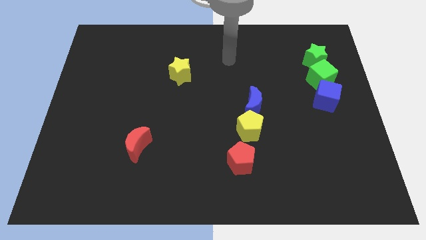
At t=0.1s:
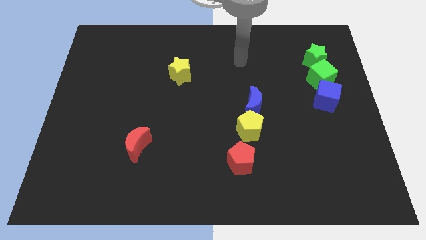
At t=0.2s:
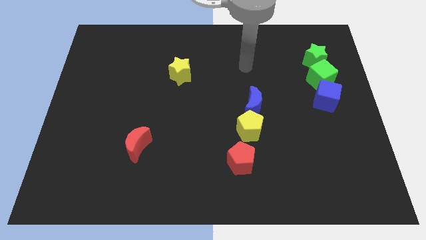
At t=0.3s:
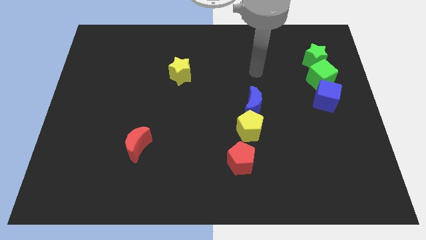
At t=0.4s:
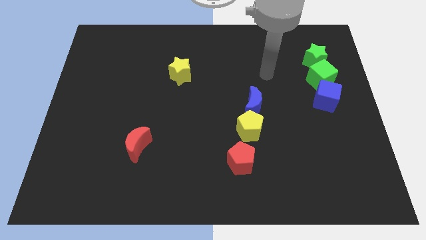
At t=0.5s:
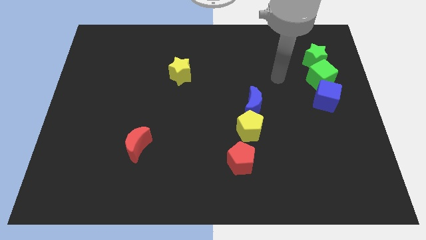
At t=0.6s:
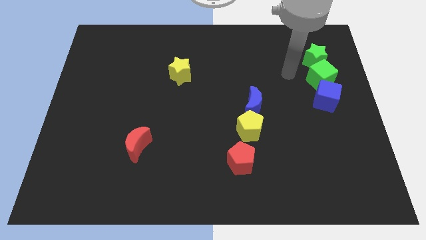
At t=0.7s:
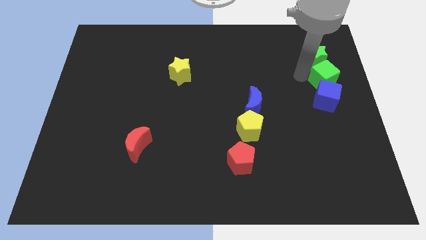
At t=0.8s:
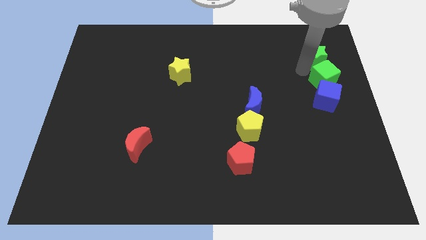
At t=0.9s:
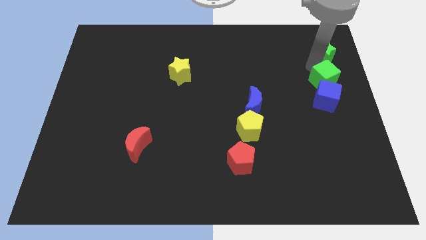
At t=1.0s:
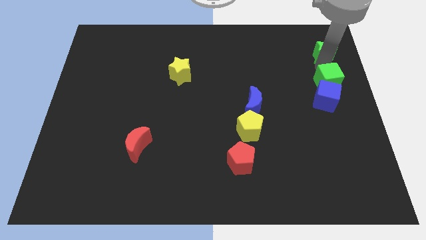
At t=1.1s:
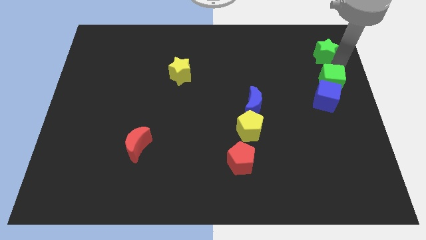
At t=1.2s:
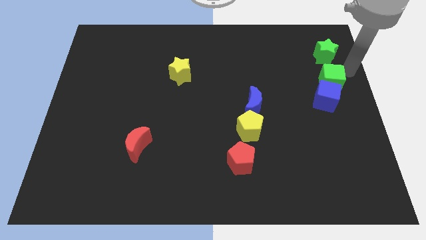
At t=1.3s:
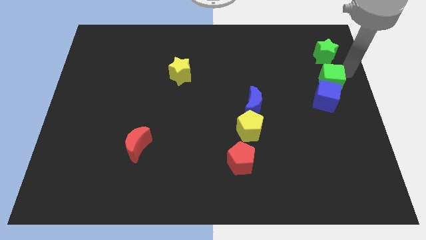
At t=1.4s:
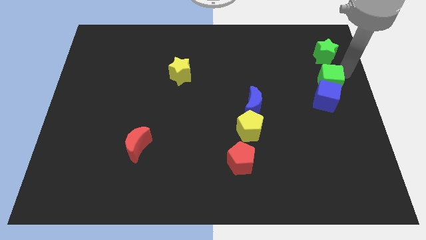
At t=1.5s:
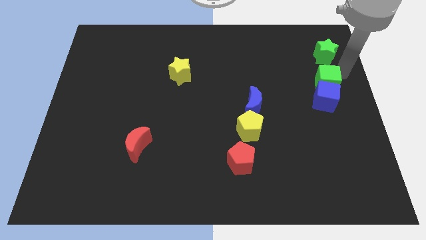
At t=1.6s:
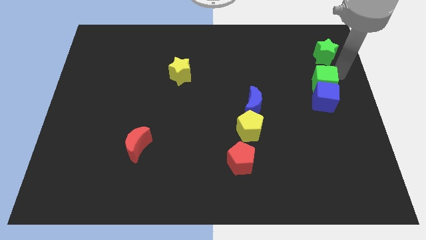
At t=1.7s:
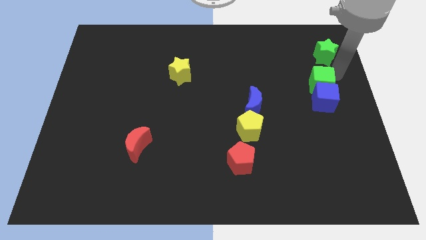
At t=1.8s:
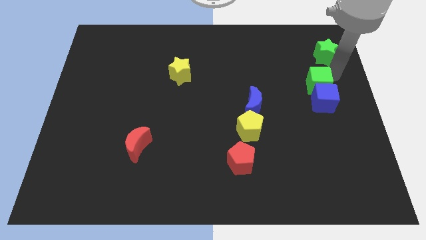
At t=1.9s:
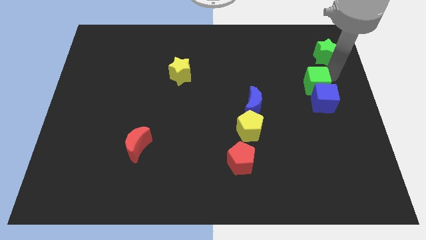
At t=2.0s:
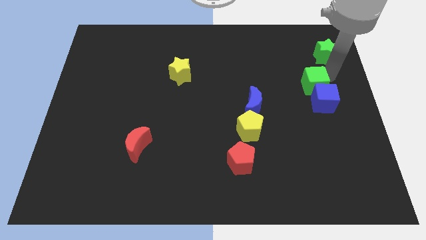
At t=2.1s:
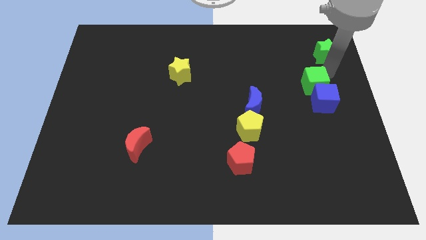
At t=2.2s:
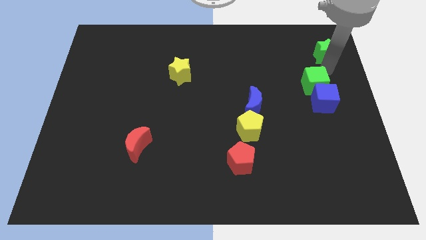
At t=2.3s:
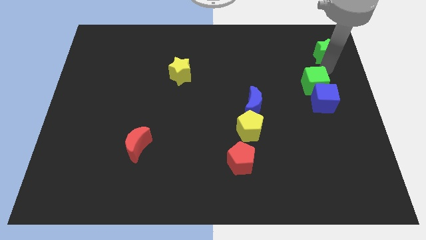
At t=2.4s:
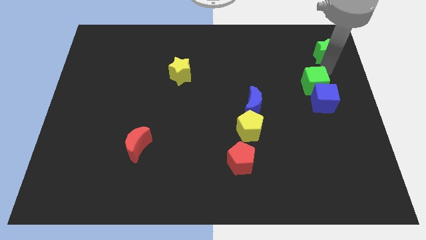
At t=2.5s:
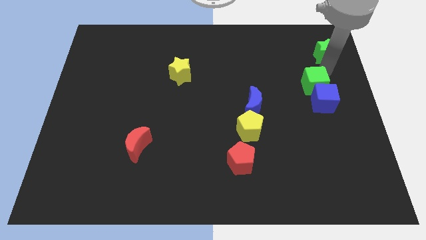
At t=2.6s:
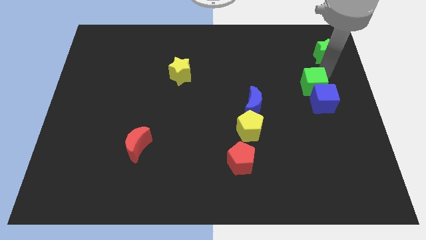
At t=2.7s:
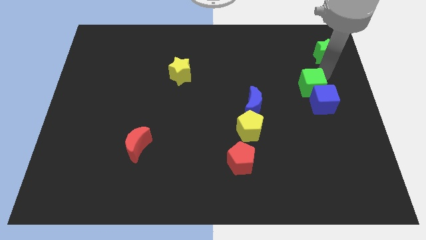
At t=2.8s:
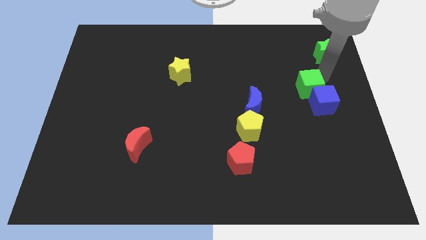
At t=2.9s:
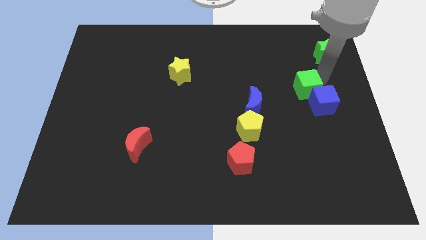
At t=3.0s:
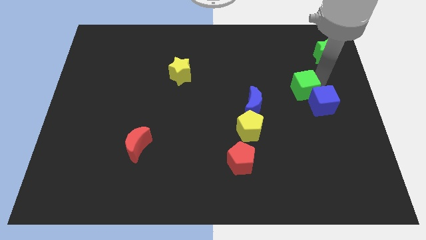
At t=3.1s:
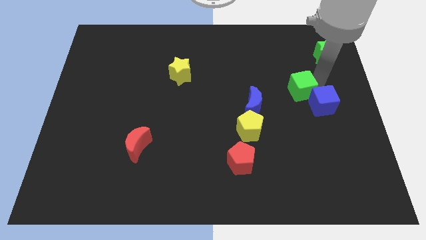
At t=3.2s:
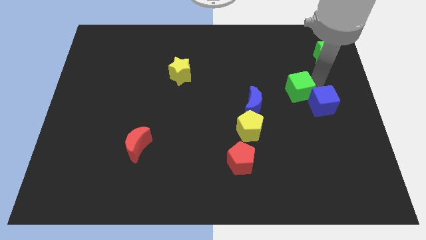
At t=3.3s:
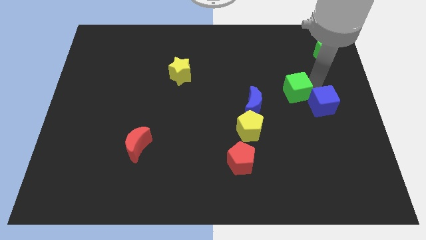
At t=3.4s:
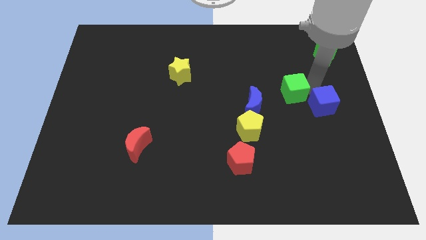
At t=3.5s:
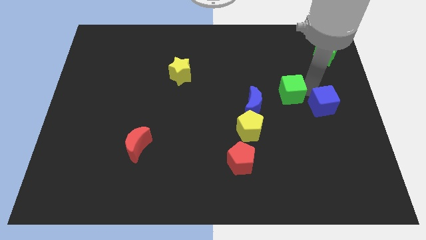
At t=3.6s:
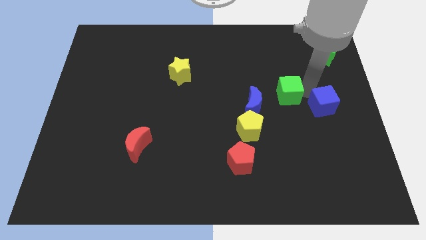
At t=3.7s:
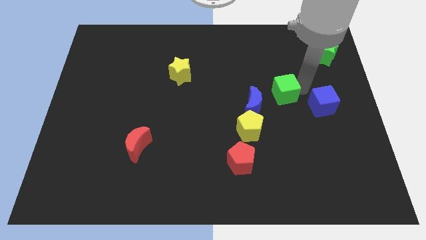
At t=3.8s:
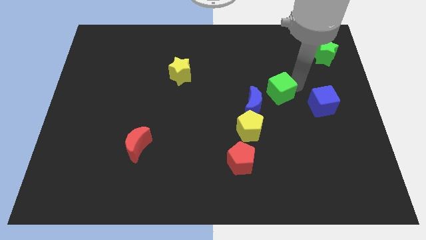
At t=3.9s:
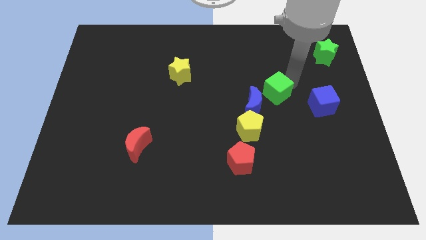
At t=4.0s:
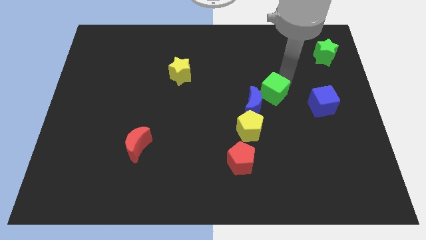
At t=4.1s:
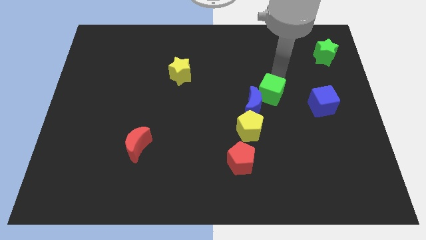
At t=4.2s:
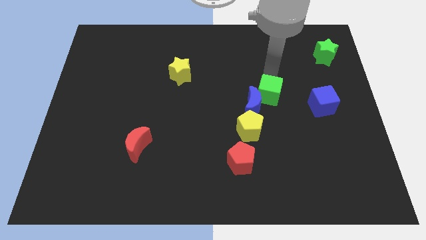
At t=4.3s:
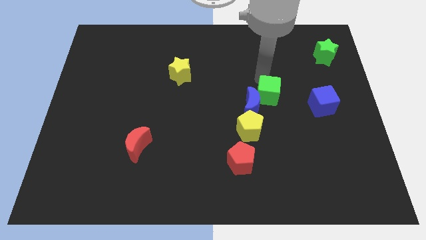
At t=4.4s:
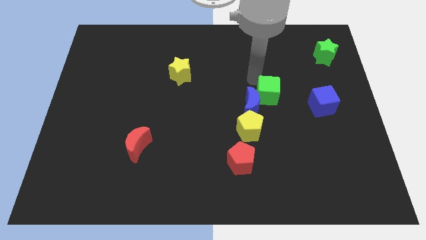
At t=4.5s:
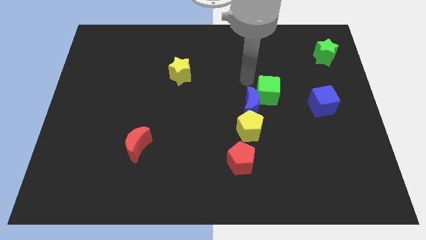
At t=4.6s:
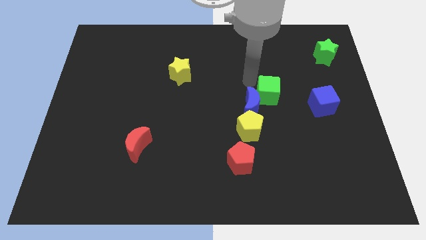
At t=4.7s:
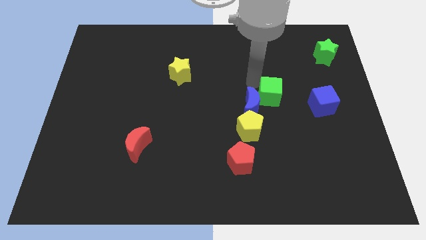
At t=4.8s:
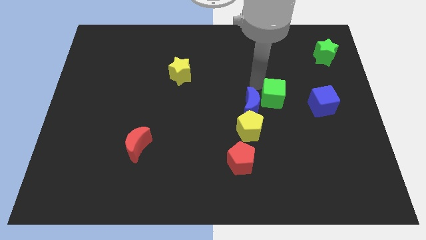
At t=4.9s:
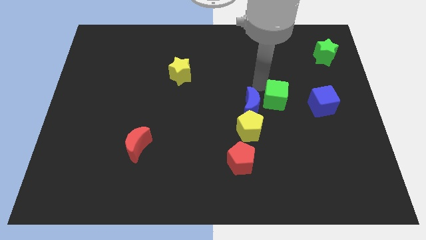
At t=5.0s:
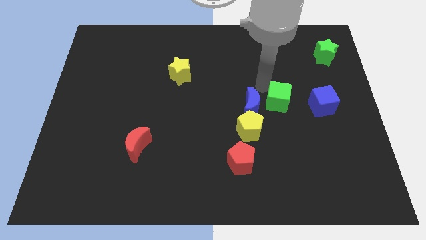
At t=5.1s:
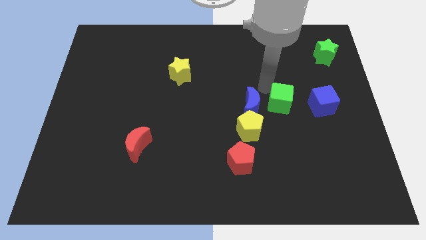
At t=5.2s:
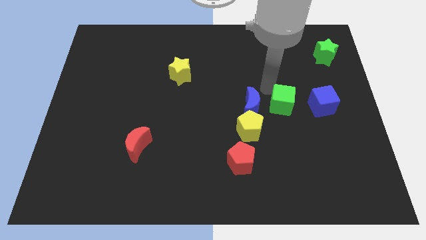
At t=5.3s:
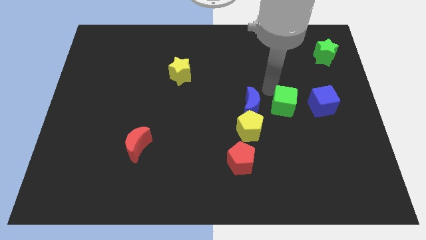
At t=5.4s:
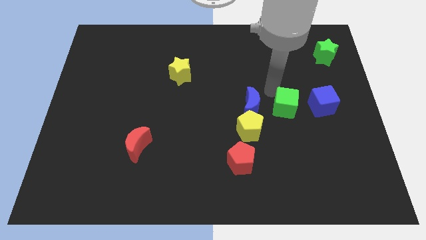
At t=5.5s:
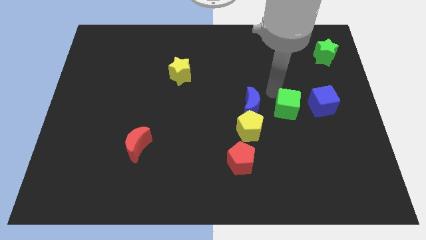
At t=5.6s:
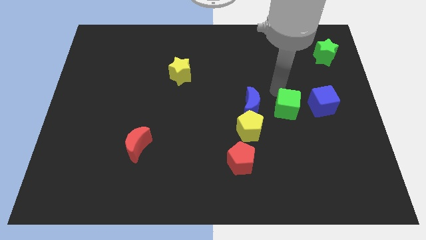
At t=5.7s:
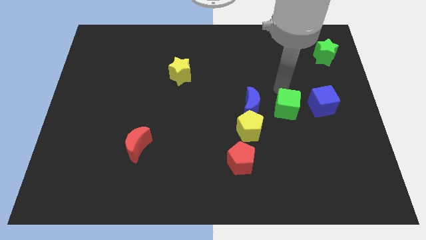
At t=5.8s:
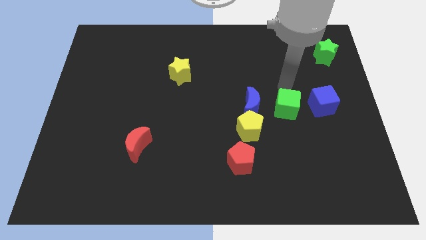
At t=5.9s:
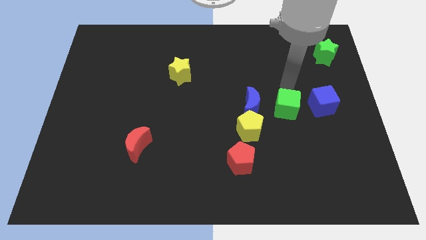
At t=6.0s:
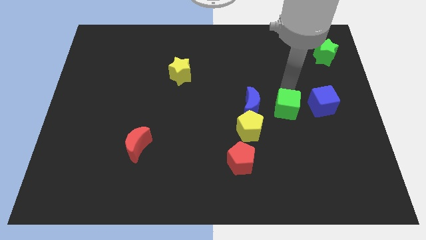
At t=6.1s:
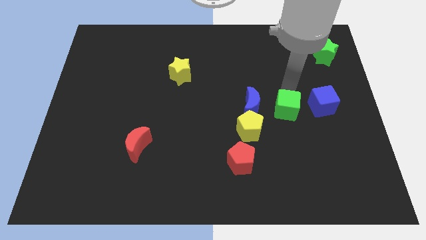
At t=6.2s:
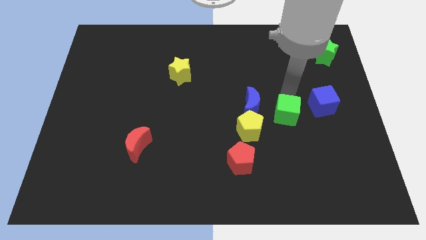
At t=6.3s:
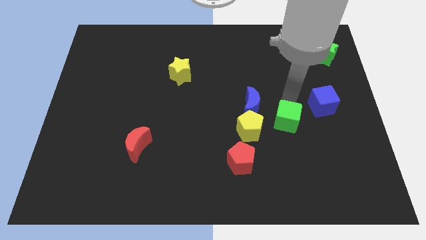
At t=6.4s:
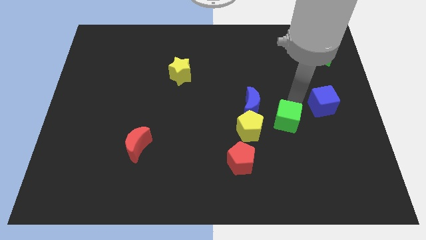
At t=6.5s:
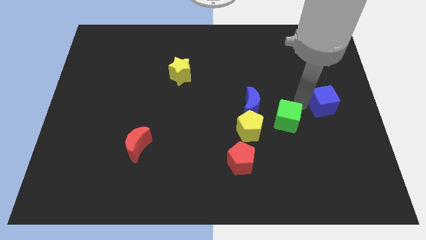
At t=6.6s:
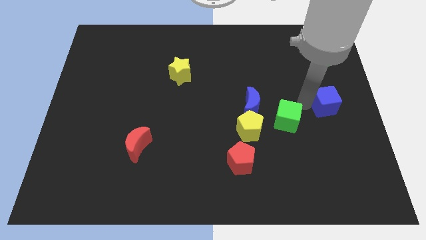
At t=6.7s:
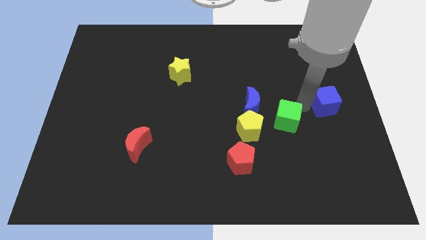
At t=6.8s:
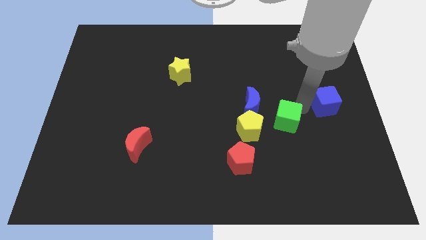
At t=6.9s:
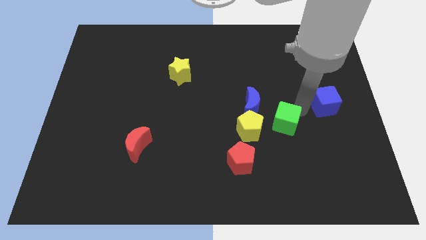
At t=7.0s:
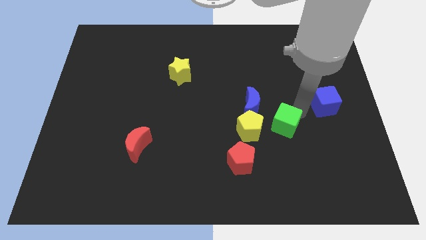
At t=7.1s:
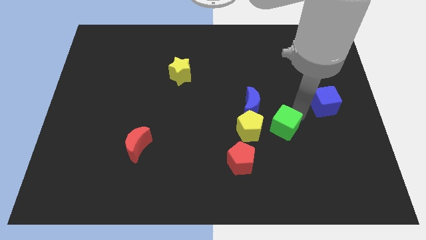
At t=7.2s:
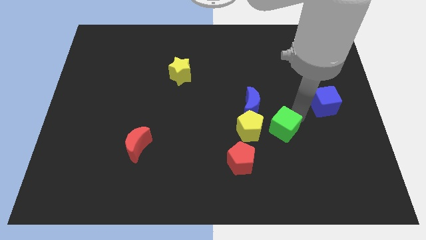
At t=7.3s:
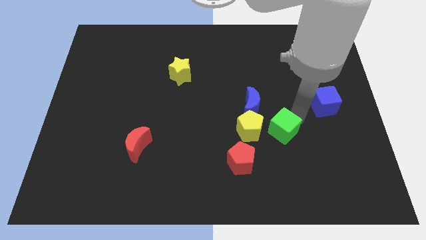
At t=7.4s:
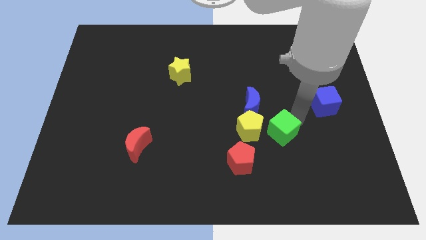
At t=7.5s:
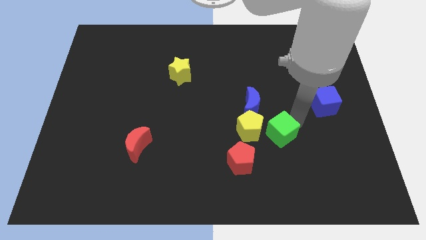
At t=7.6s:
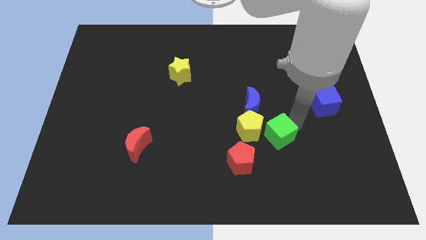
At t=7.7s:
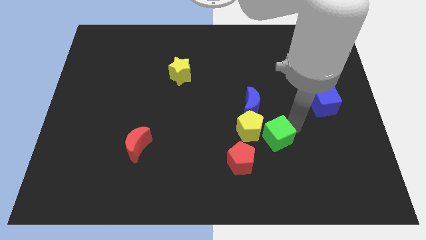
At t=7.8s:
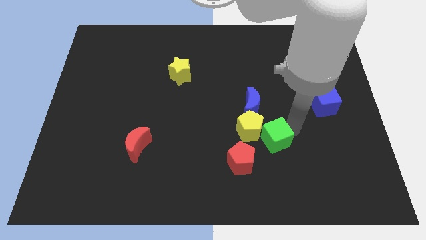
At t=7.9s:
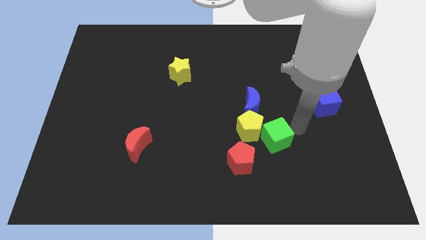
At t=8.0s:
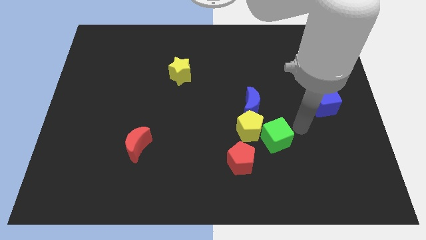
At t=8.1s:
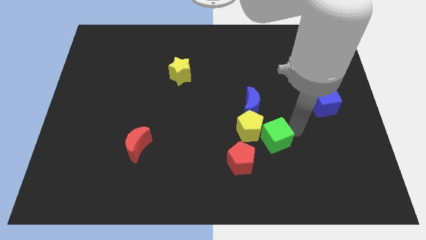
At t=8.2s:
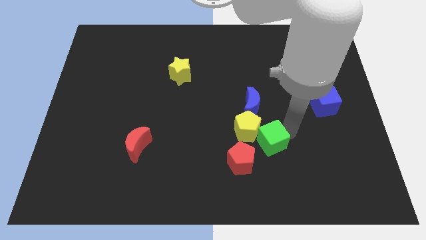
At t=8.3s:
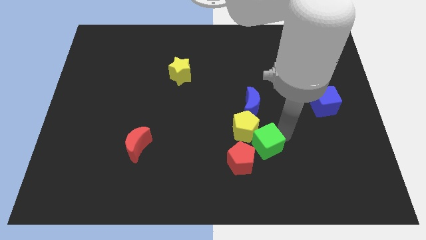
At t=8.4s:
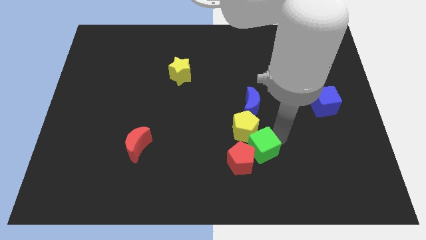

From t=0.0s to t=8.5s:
slide the green cube close to the red pentagon
